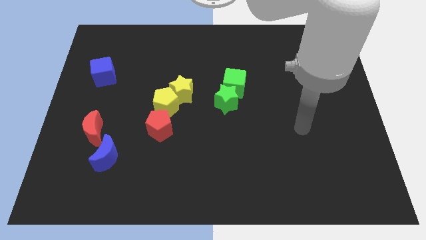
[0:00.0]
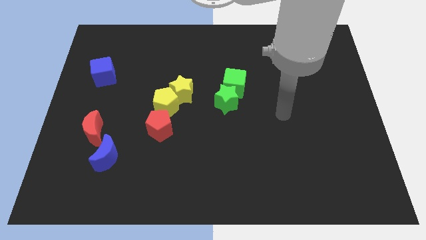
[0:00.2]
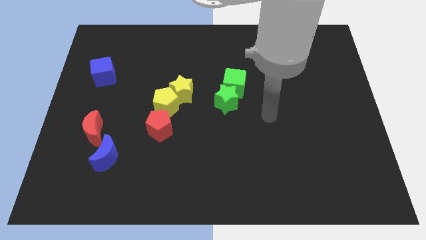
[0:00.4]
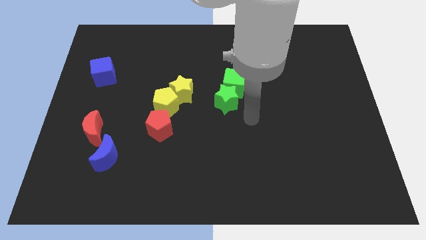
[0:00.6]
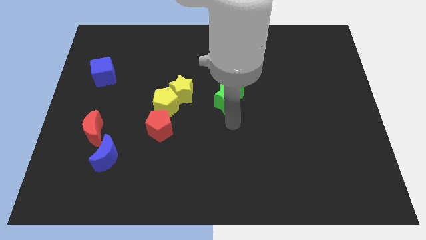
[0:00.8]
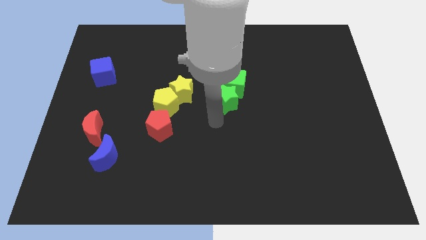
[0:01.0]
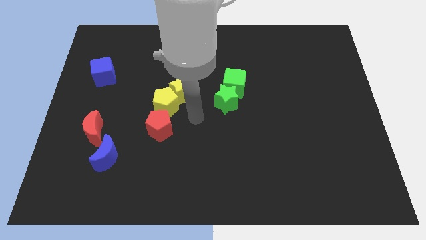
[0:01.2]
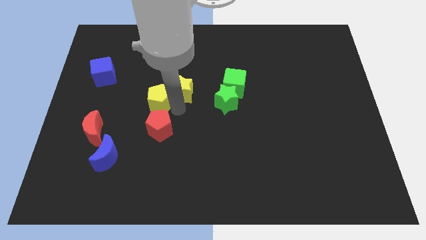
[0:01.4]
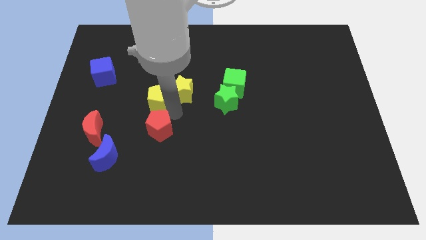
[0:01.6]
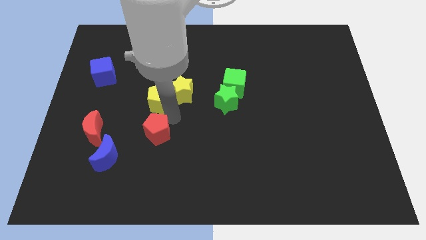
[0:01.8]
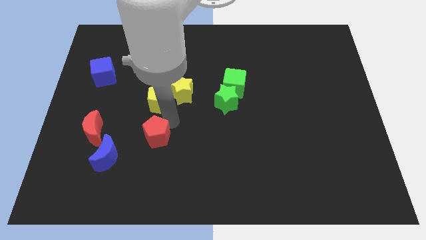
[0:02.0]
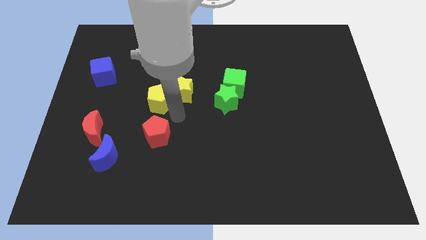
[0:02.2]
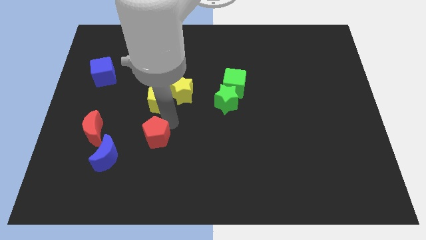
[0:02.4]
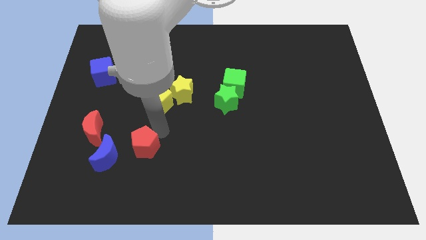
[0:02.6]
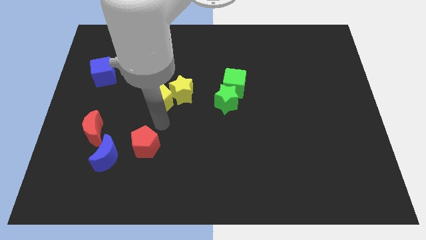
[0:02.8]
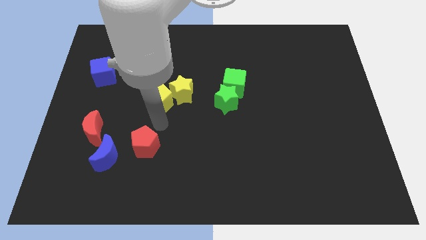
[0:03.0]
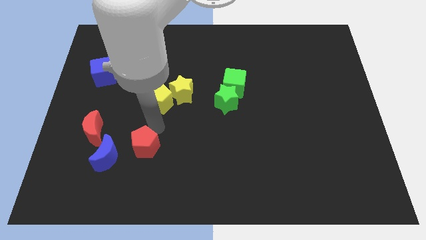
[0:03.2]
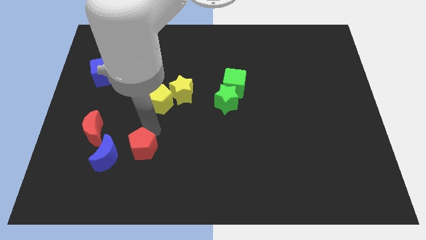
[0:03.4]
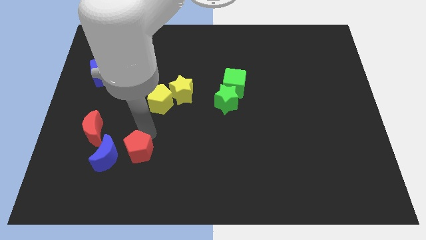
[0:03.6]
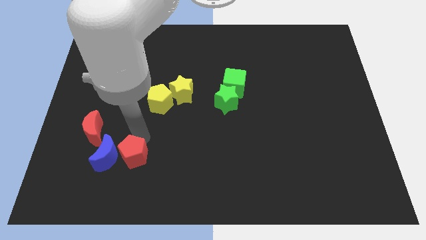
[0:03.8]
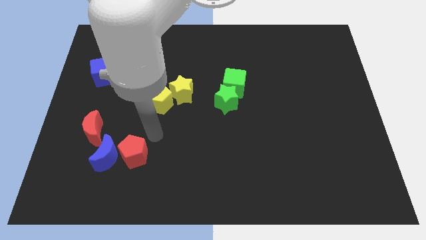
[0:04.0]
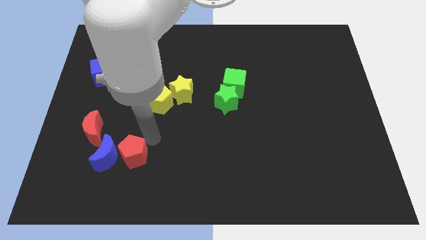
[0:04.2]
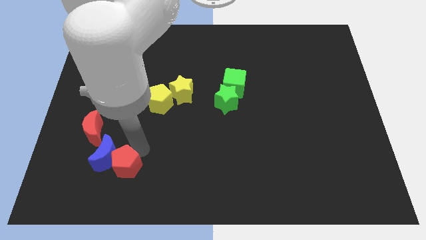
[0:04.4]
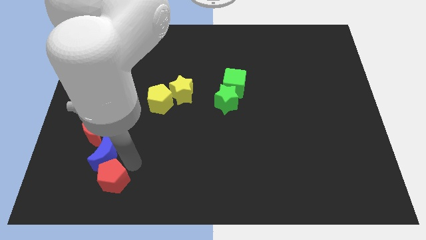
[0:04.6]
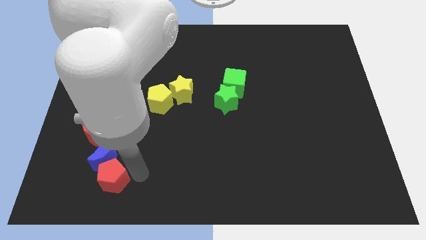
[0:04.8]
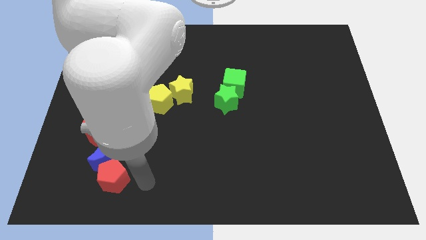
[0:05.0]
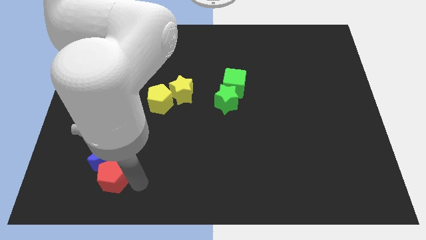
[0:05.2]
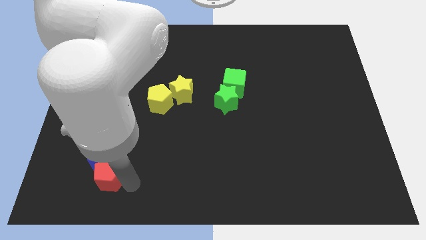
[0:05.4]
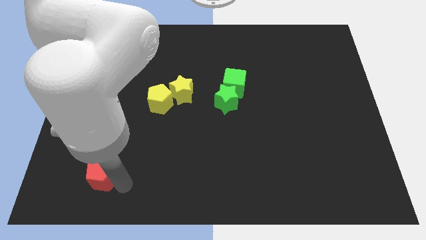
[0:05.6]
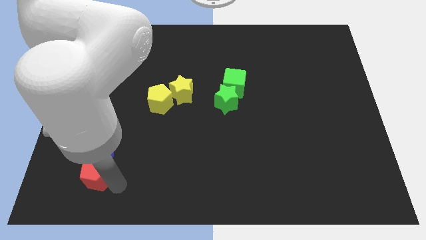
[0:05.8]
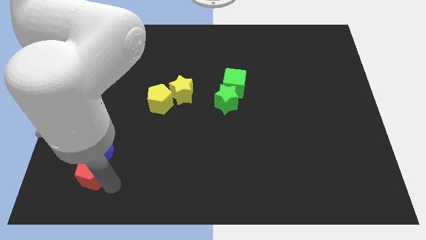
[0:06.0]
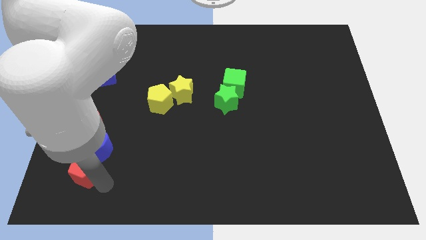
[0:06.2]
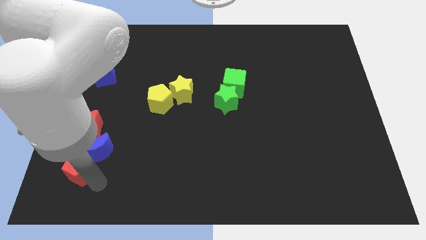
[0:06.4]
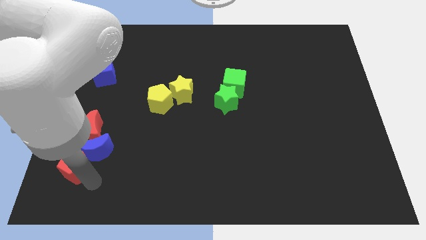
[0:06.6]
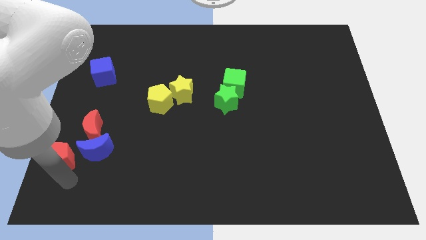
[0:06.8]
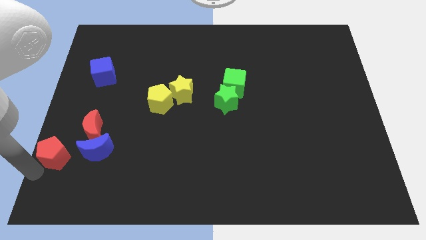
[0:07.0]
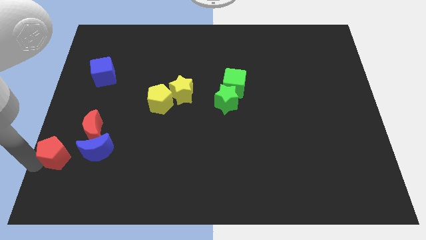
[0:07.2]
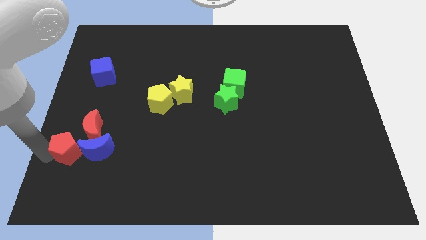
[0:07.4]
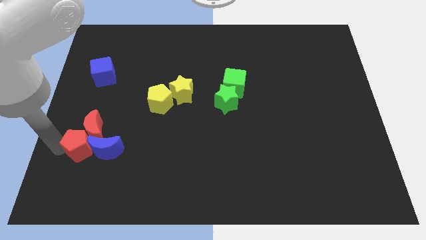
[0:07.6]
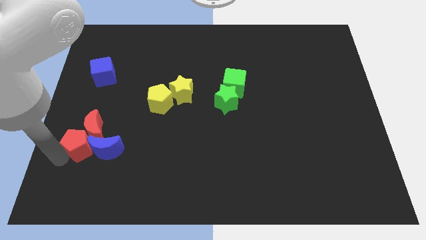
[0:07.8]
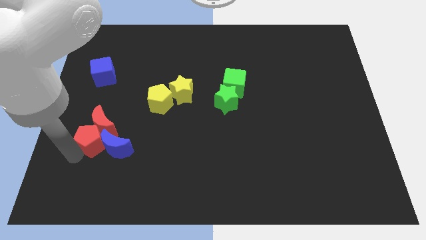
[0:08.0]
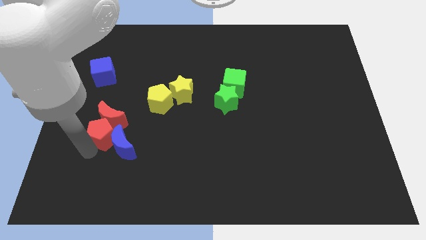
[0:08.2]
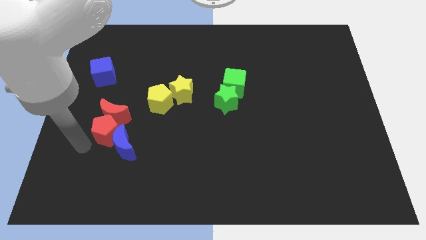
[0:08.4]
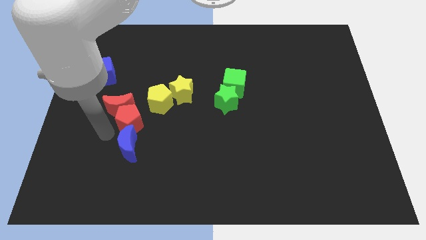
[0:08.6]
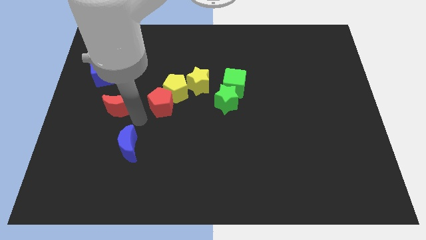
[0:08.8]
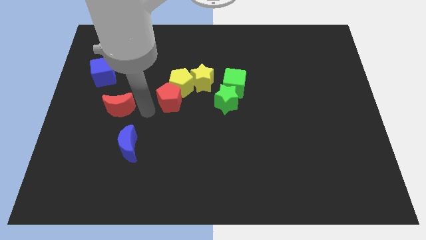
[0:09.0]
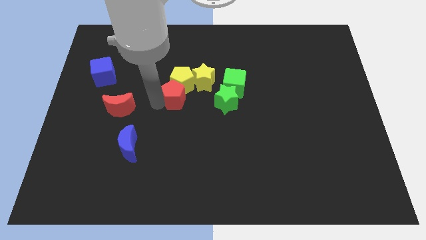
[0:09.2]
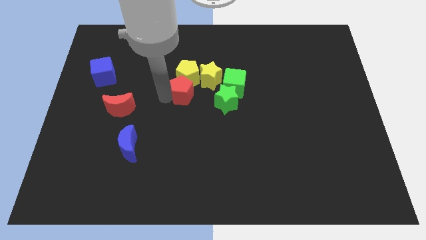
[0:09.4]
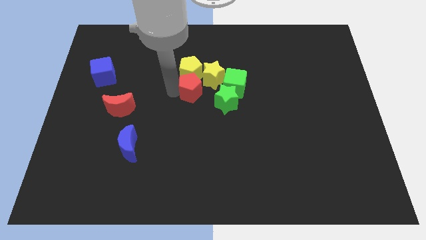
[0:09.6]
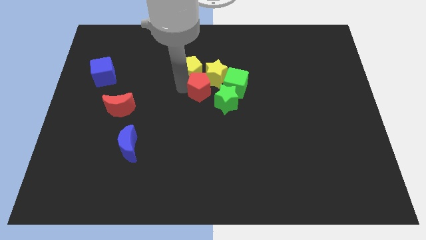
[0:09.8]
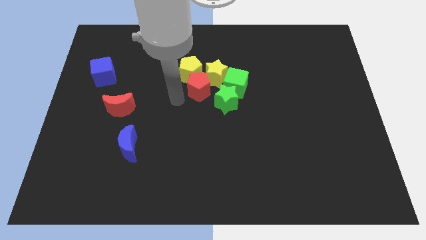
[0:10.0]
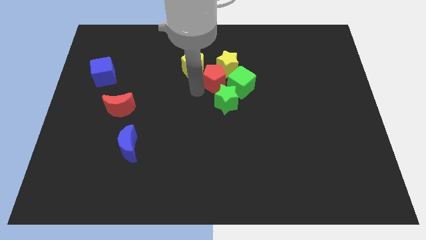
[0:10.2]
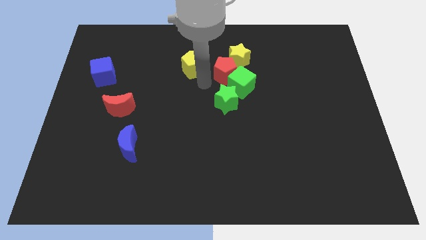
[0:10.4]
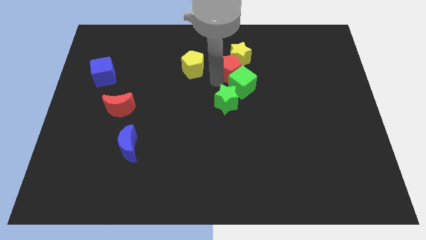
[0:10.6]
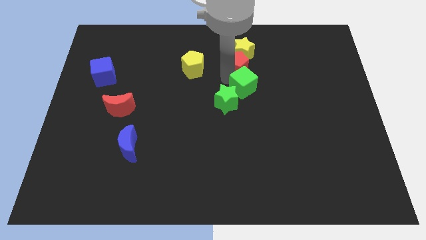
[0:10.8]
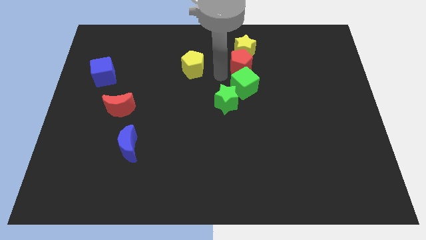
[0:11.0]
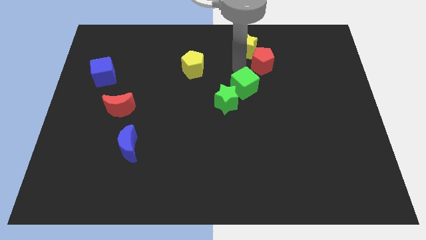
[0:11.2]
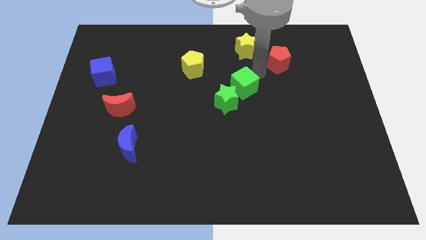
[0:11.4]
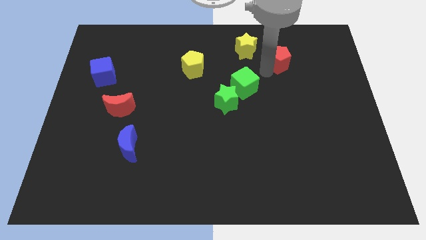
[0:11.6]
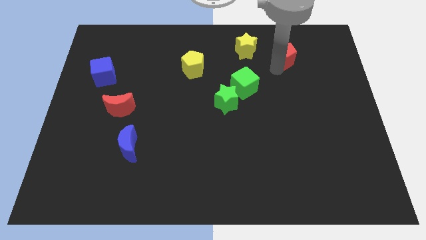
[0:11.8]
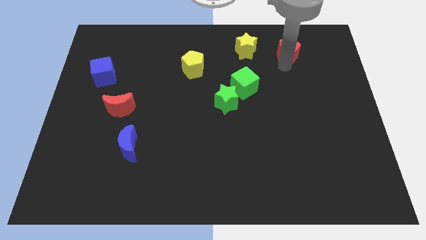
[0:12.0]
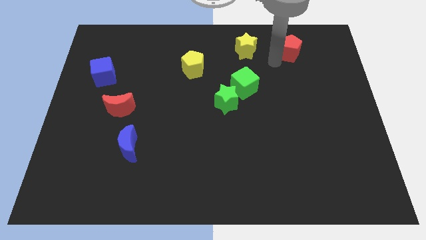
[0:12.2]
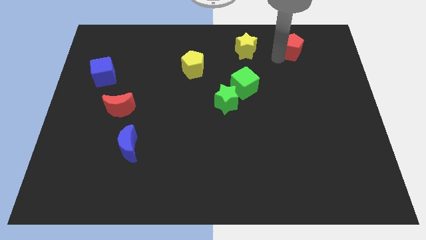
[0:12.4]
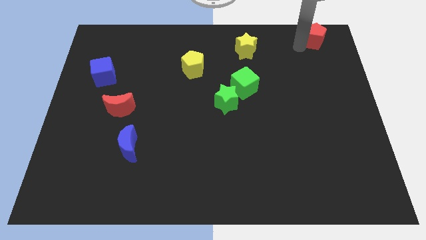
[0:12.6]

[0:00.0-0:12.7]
put the red pentagon to the top right corner
